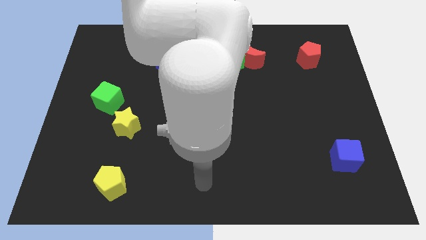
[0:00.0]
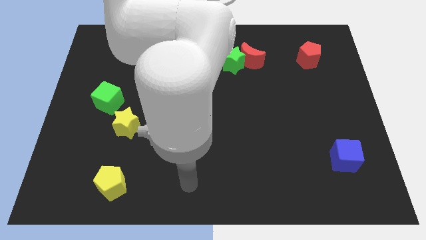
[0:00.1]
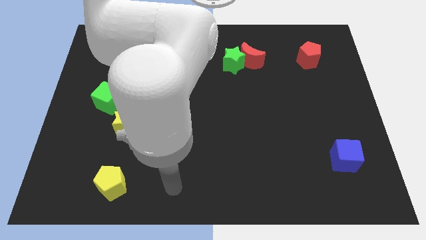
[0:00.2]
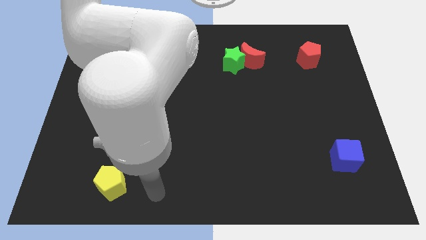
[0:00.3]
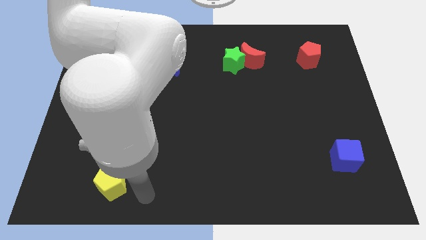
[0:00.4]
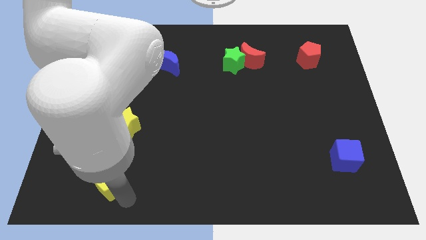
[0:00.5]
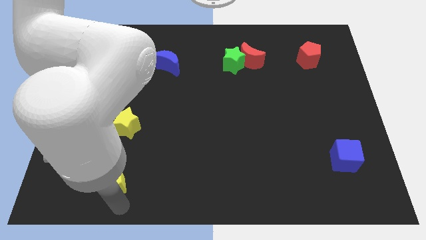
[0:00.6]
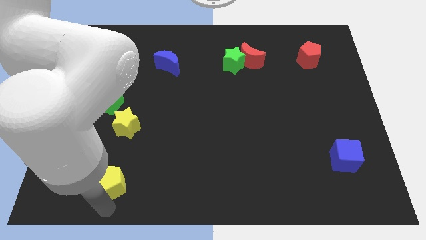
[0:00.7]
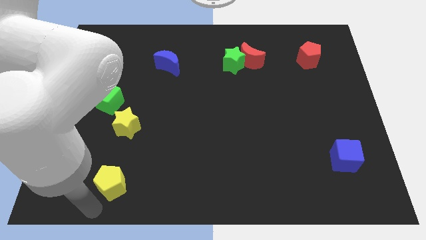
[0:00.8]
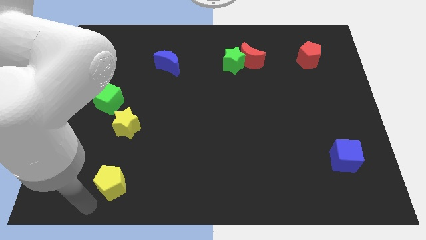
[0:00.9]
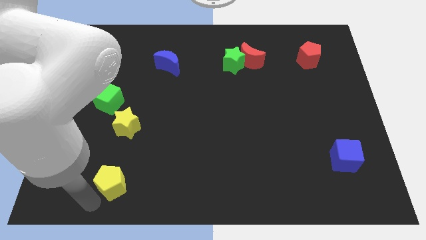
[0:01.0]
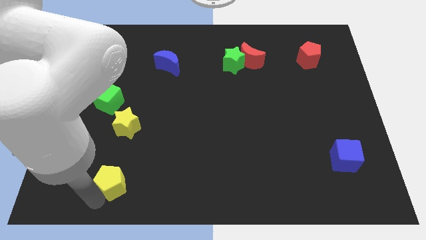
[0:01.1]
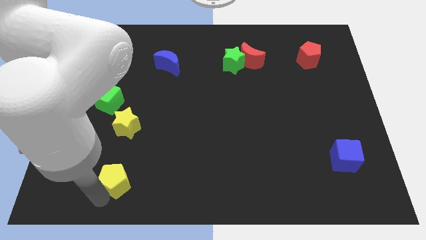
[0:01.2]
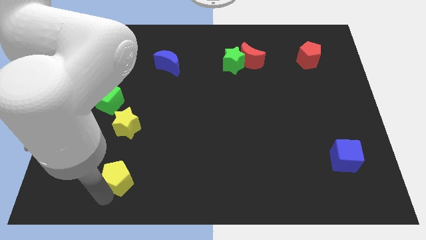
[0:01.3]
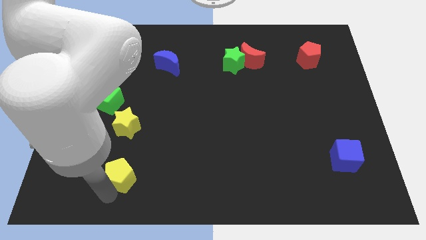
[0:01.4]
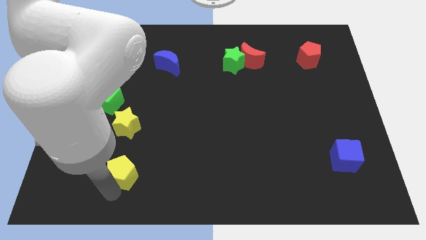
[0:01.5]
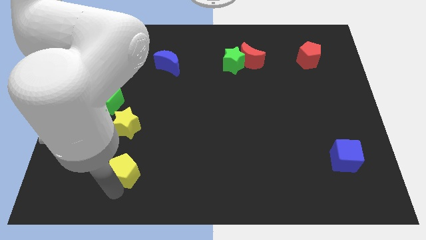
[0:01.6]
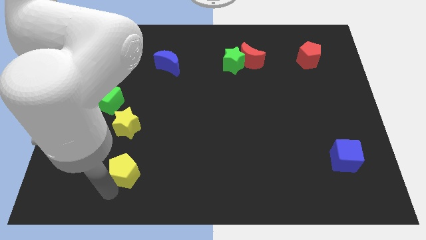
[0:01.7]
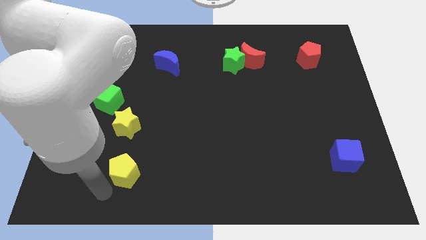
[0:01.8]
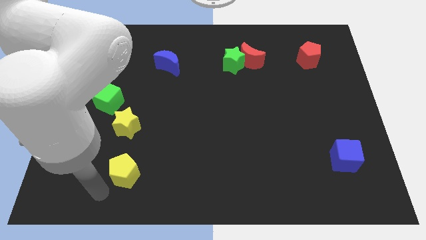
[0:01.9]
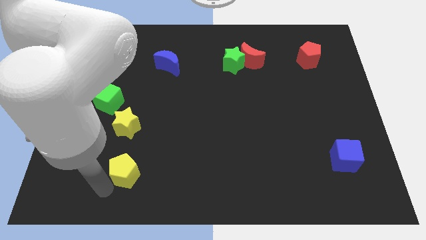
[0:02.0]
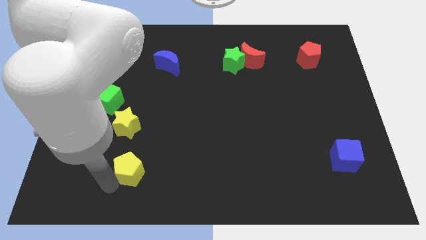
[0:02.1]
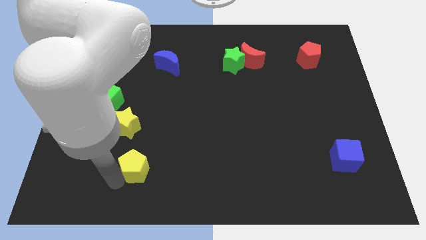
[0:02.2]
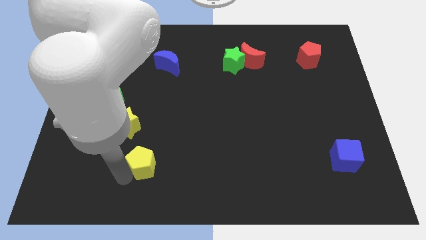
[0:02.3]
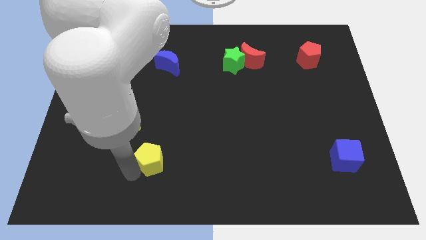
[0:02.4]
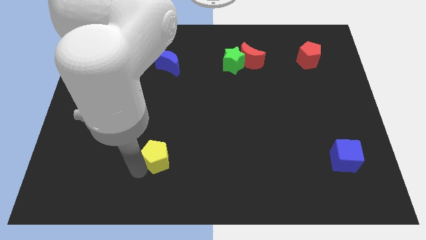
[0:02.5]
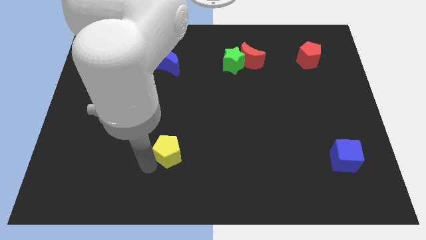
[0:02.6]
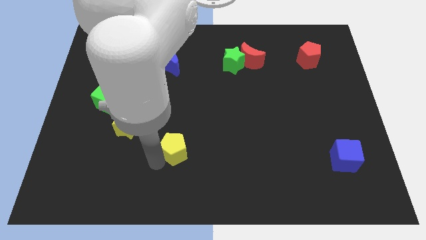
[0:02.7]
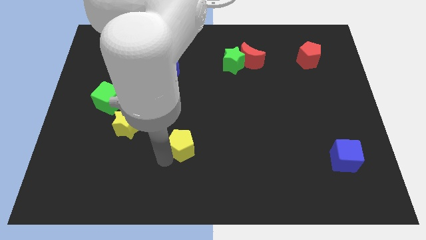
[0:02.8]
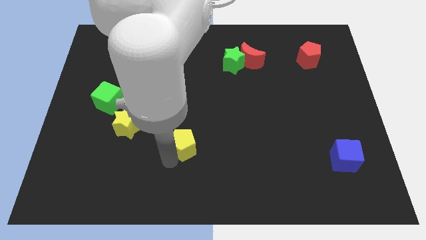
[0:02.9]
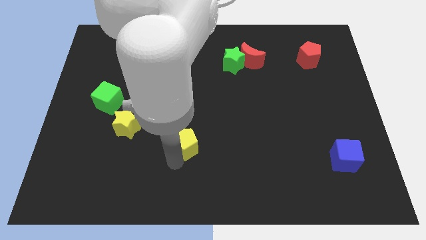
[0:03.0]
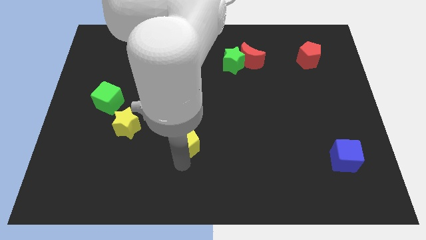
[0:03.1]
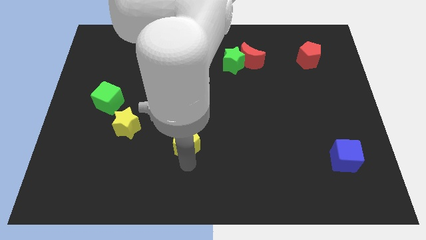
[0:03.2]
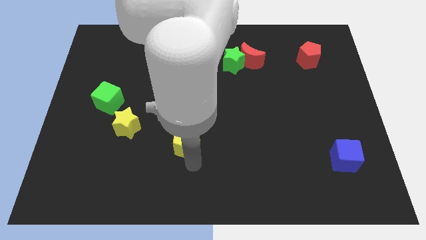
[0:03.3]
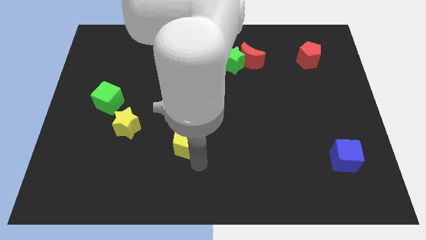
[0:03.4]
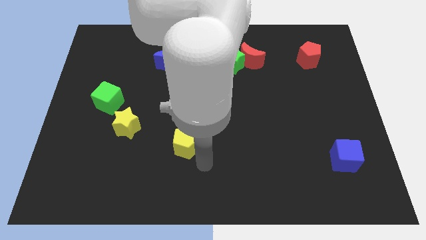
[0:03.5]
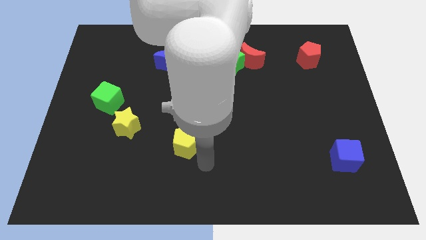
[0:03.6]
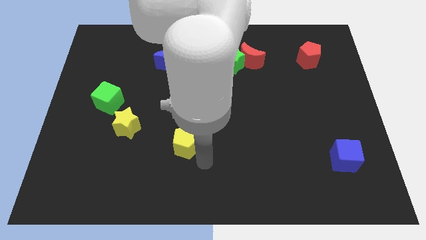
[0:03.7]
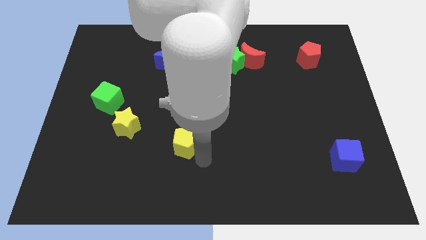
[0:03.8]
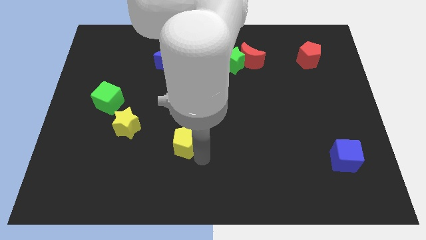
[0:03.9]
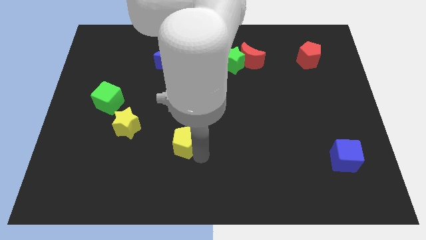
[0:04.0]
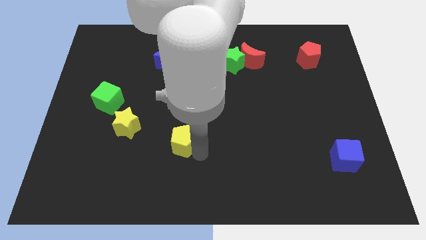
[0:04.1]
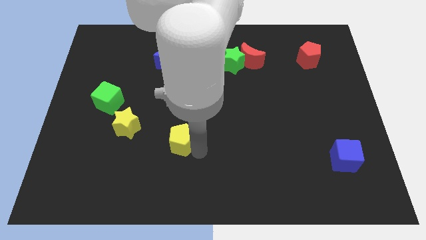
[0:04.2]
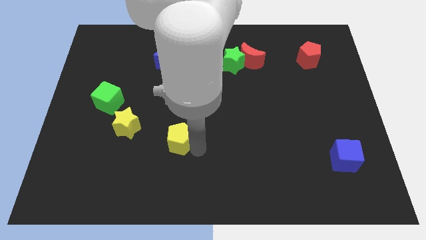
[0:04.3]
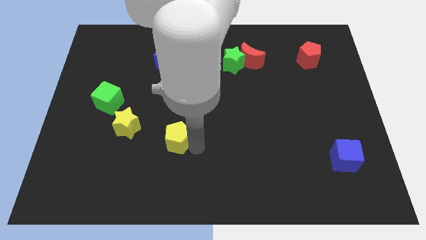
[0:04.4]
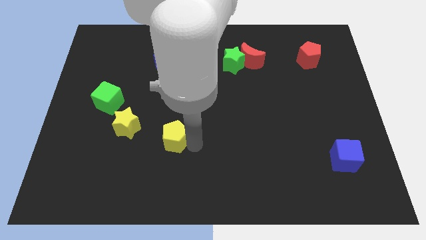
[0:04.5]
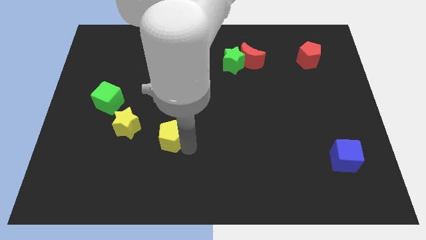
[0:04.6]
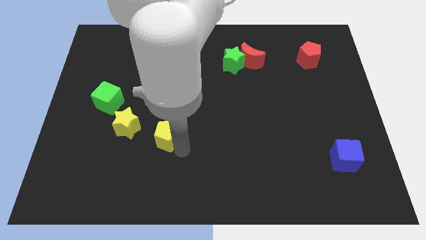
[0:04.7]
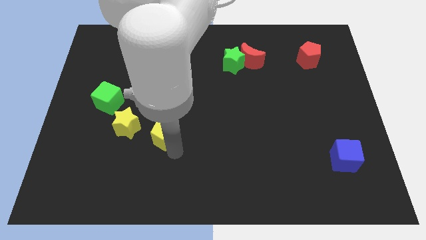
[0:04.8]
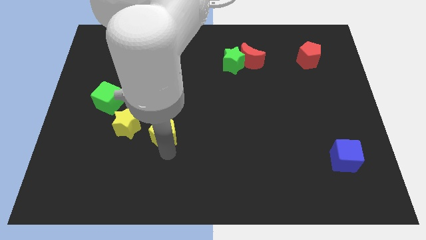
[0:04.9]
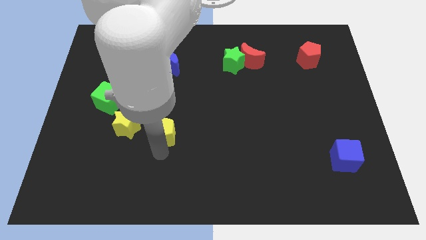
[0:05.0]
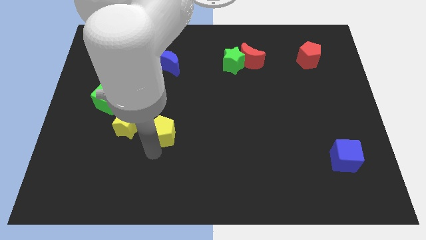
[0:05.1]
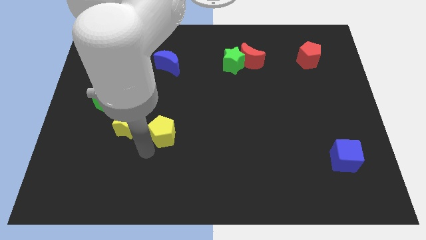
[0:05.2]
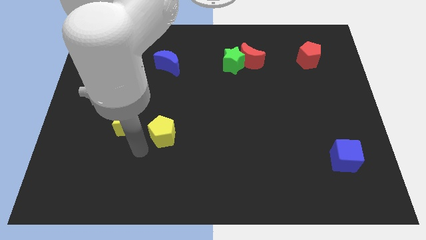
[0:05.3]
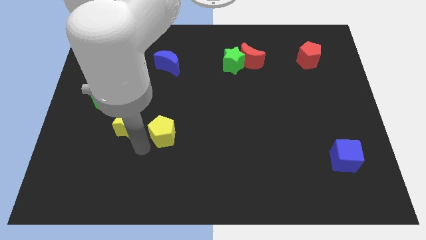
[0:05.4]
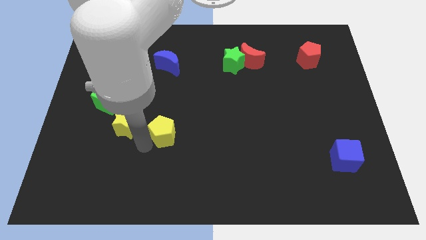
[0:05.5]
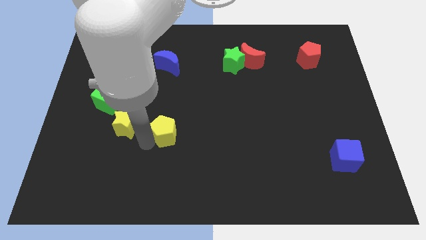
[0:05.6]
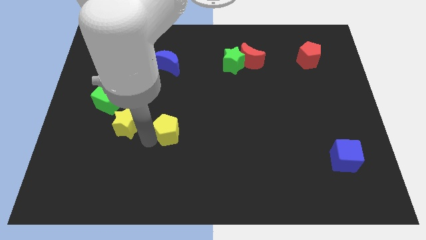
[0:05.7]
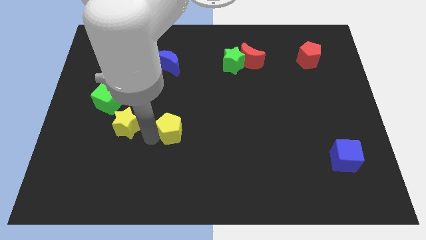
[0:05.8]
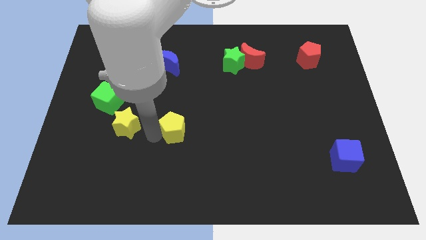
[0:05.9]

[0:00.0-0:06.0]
put the yellow pentagon to the center of the board

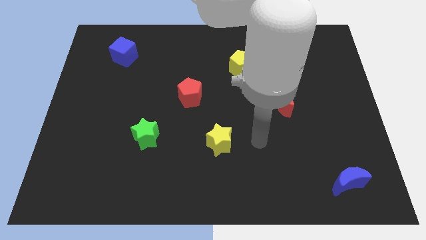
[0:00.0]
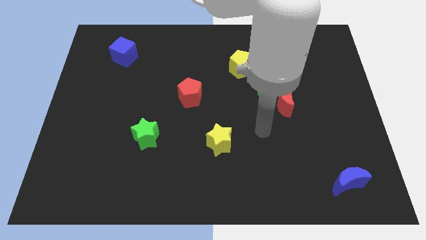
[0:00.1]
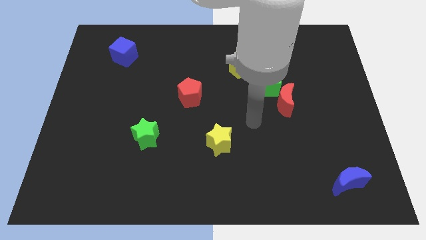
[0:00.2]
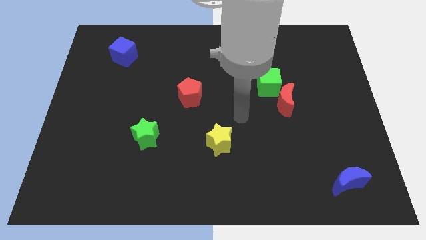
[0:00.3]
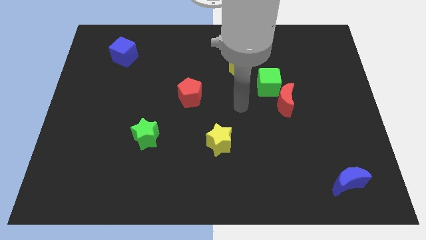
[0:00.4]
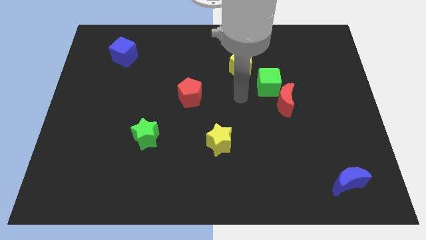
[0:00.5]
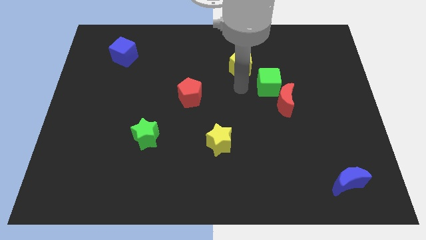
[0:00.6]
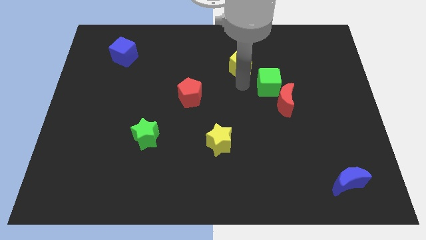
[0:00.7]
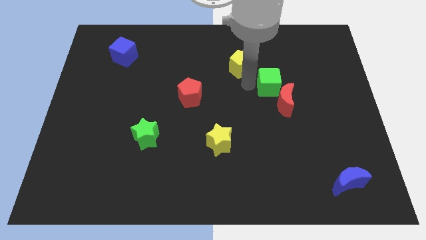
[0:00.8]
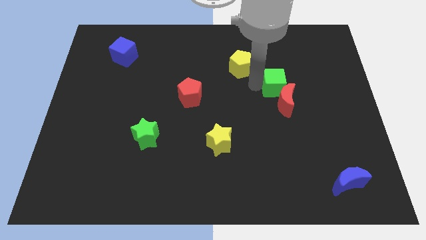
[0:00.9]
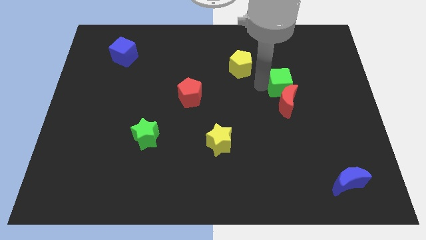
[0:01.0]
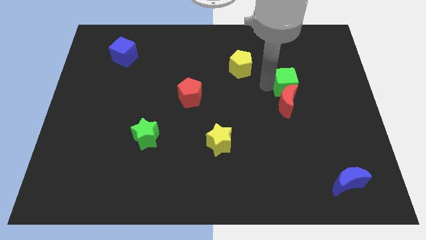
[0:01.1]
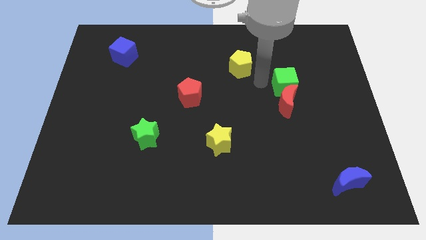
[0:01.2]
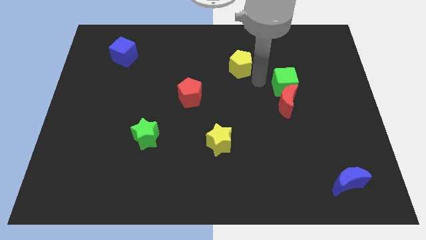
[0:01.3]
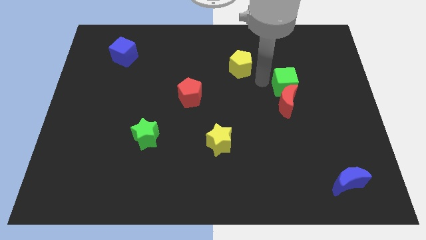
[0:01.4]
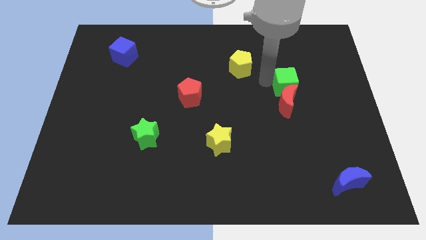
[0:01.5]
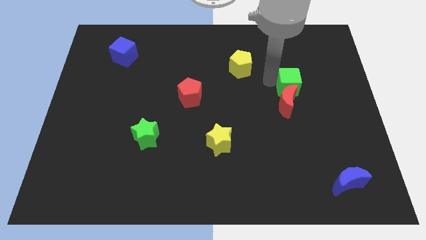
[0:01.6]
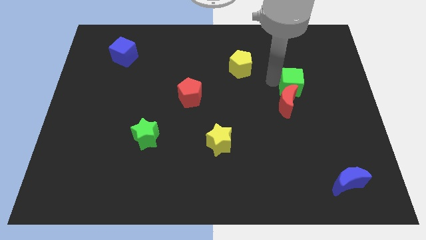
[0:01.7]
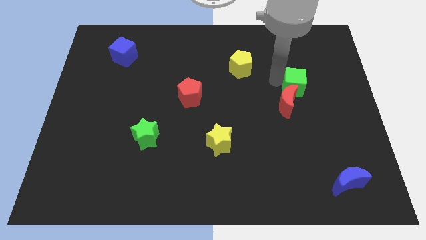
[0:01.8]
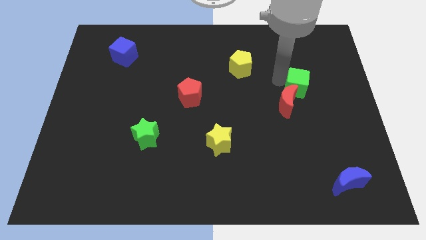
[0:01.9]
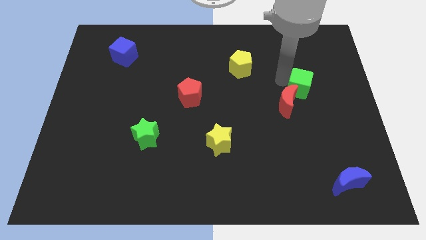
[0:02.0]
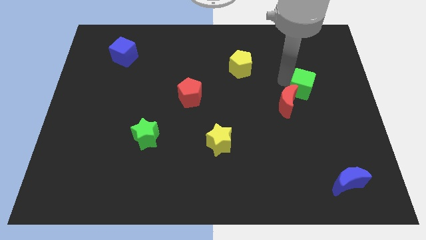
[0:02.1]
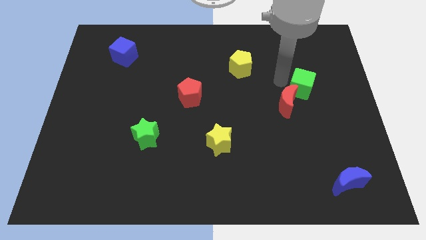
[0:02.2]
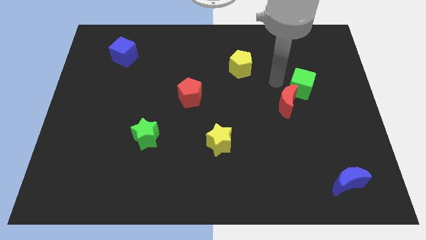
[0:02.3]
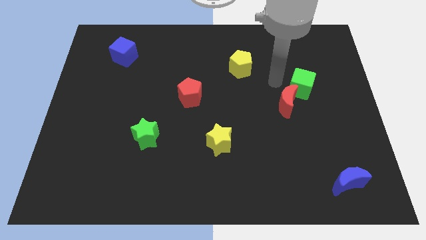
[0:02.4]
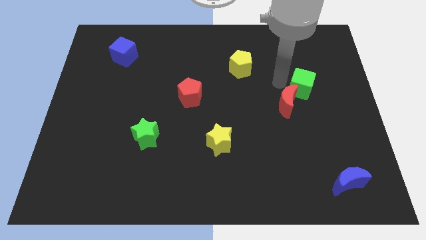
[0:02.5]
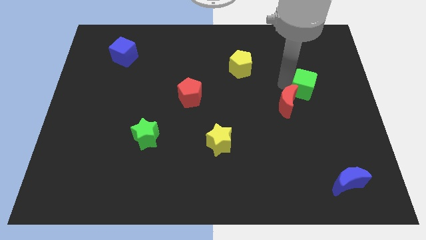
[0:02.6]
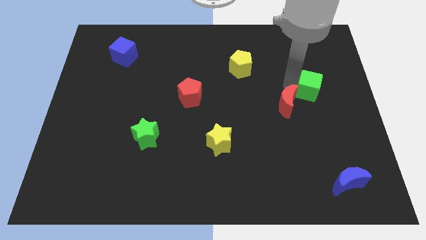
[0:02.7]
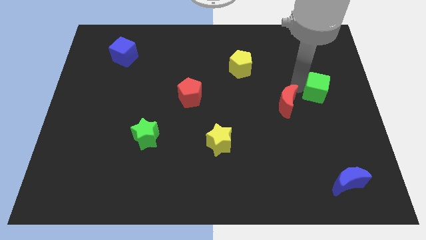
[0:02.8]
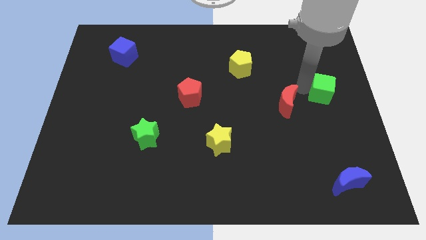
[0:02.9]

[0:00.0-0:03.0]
push the green cube to the right side
